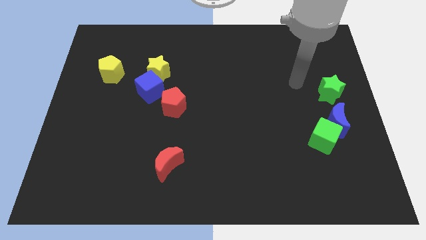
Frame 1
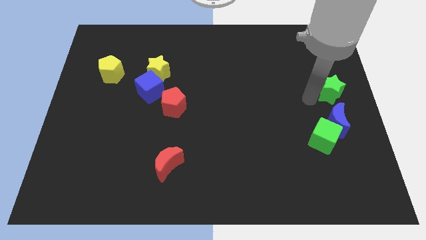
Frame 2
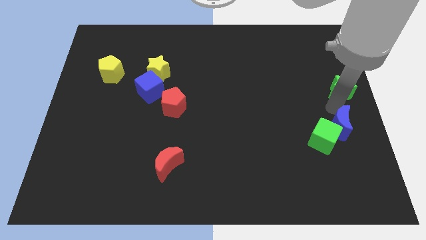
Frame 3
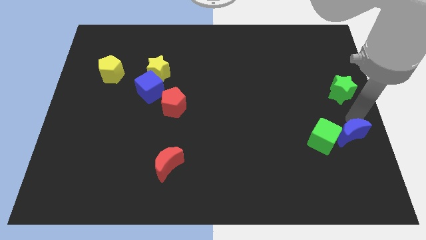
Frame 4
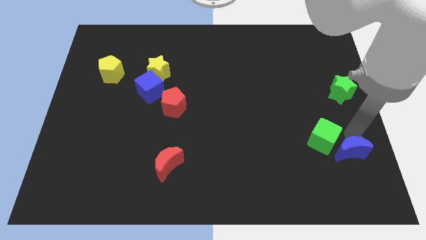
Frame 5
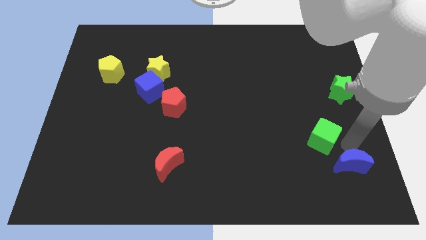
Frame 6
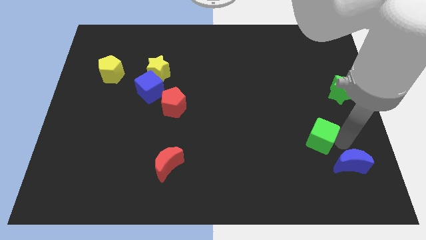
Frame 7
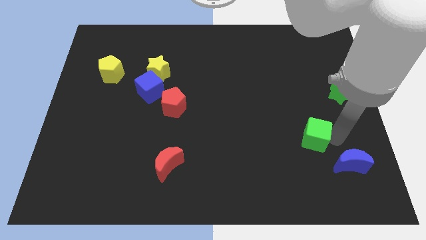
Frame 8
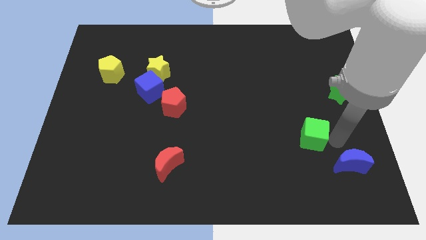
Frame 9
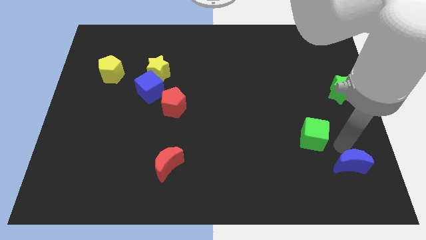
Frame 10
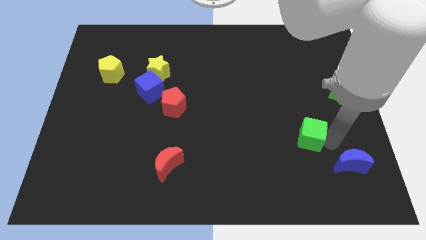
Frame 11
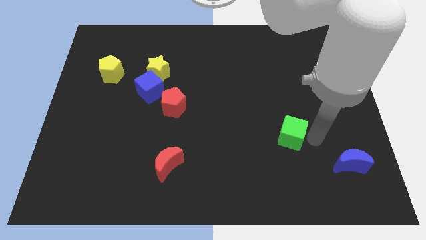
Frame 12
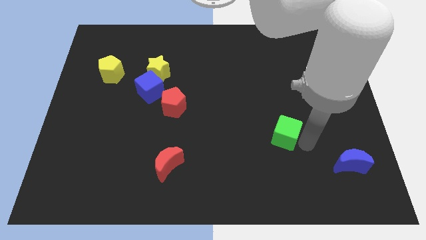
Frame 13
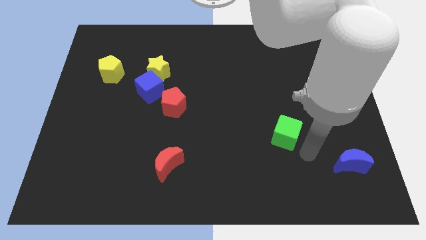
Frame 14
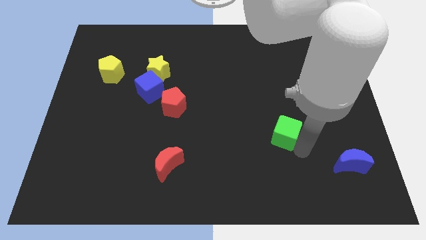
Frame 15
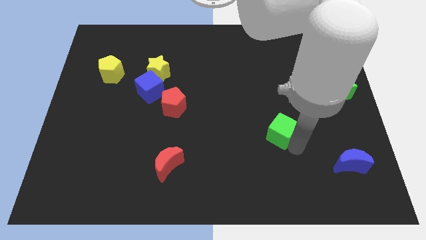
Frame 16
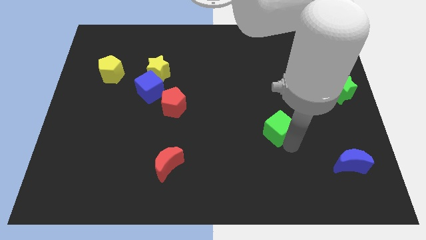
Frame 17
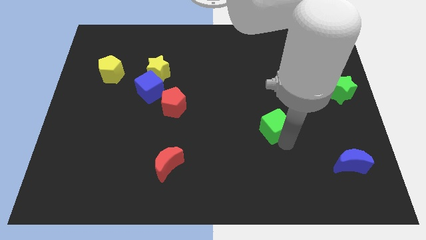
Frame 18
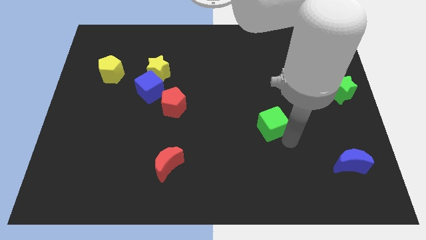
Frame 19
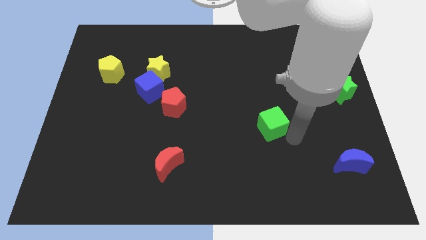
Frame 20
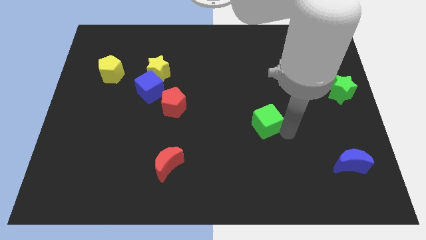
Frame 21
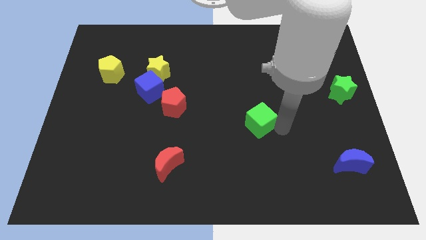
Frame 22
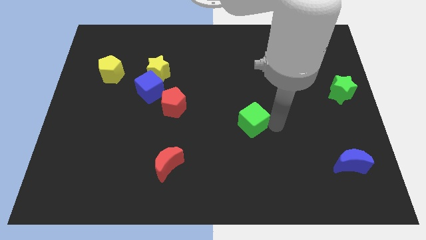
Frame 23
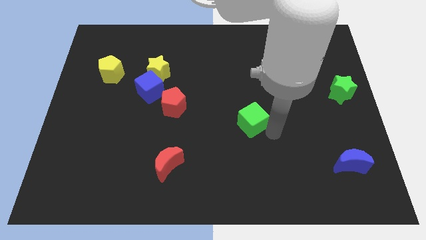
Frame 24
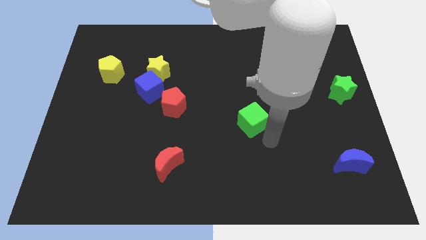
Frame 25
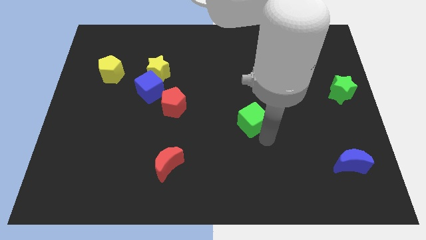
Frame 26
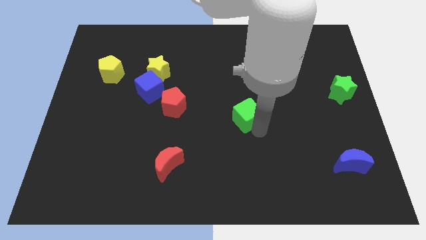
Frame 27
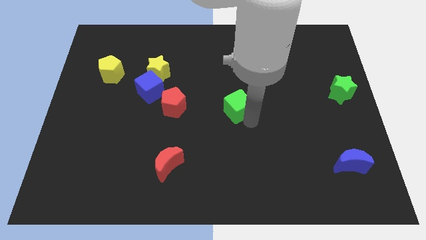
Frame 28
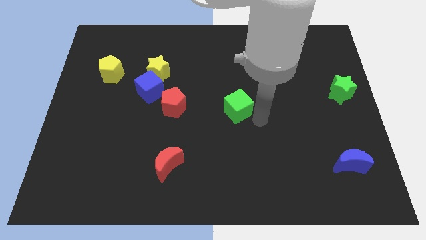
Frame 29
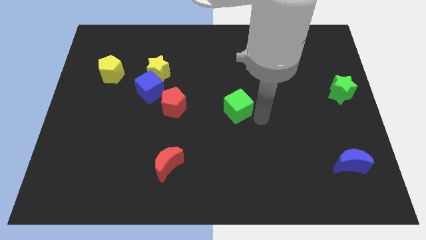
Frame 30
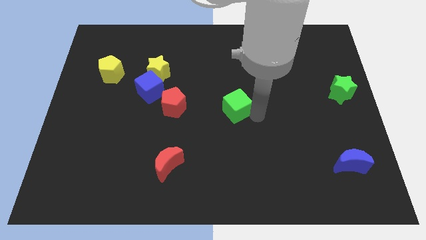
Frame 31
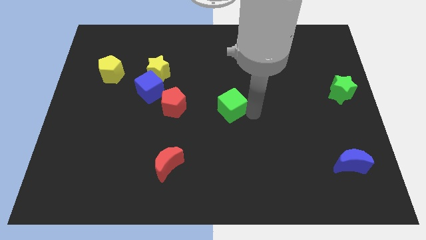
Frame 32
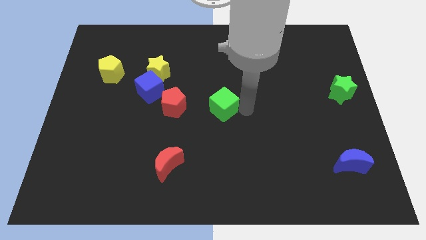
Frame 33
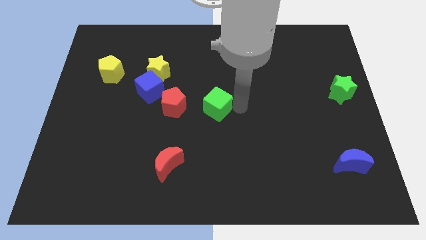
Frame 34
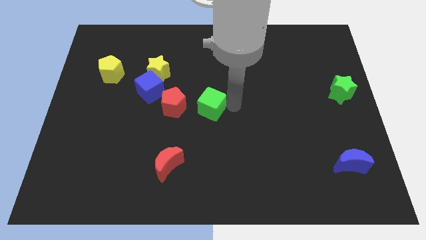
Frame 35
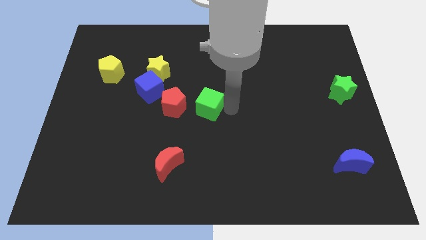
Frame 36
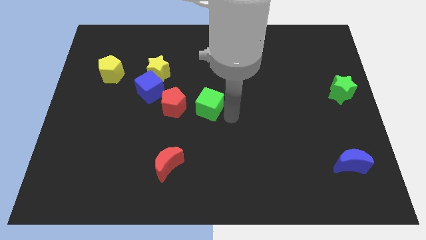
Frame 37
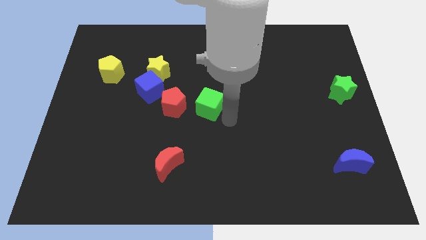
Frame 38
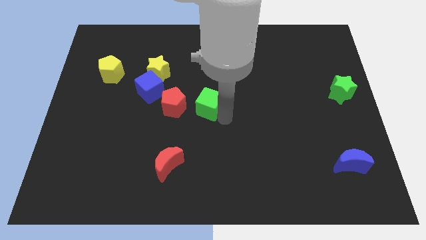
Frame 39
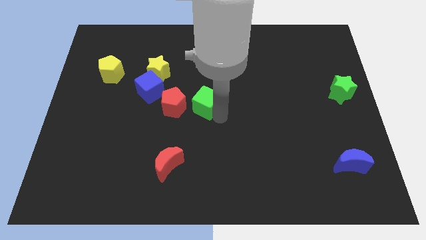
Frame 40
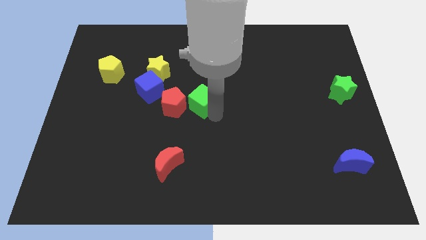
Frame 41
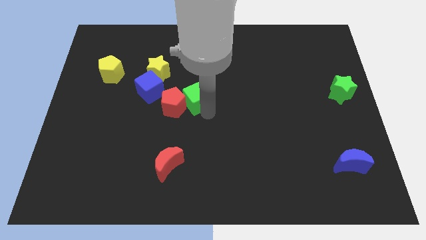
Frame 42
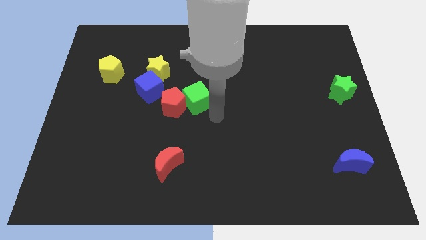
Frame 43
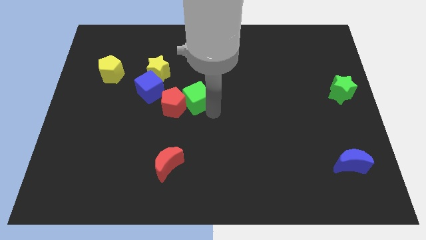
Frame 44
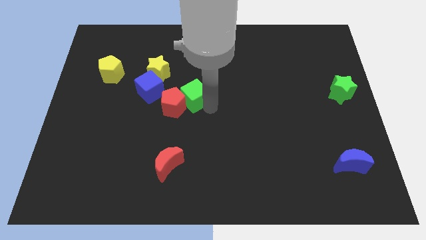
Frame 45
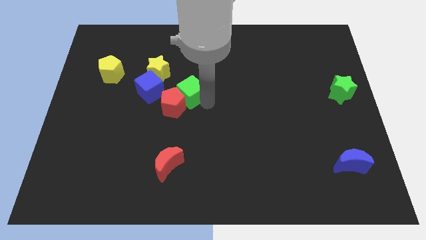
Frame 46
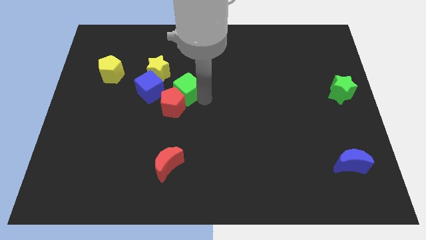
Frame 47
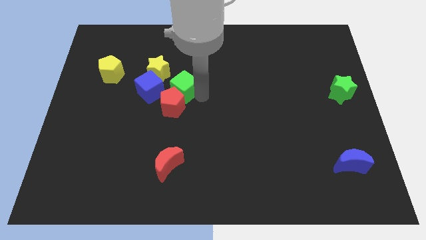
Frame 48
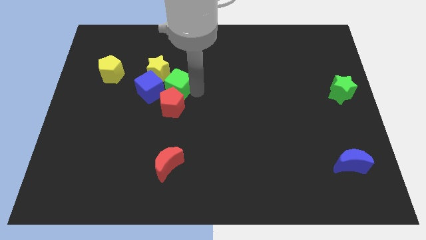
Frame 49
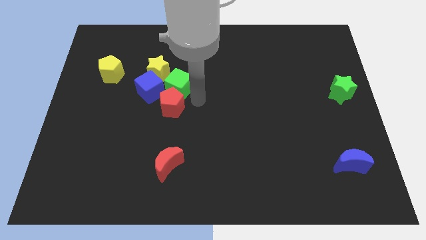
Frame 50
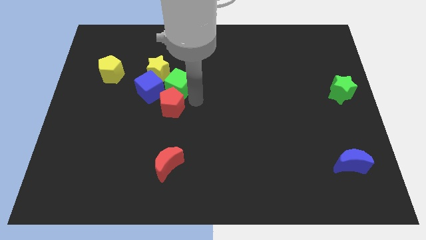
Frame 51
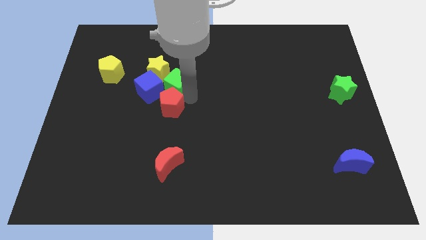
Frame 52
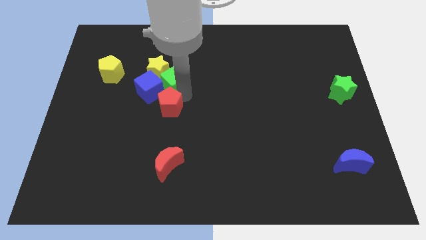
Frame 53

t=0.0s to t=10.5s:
put the green cube next to the yellow star

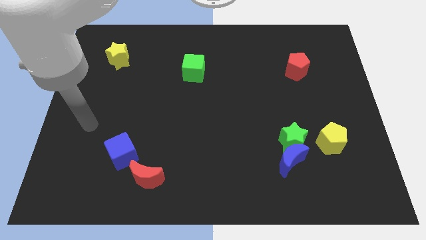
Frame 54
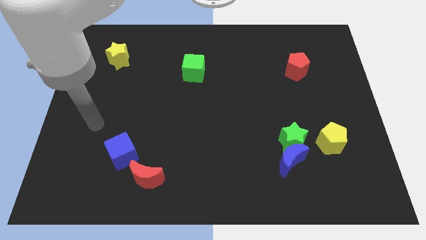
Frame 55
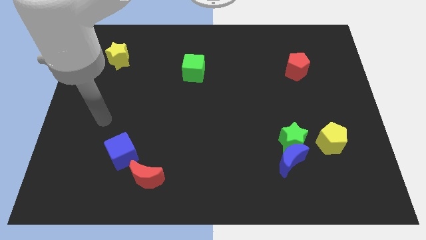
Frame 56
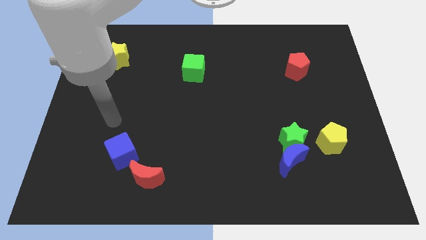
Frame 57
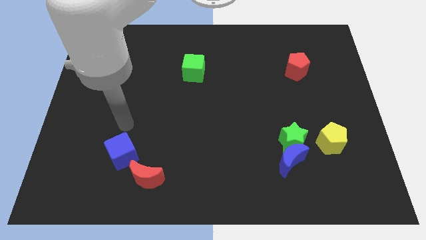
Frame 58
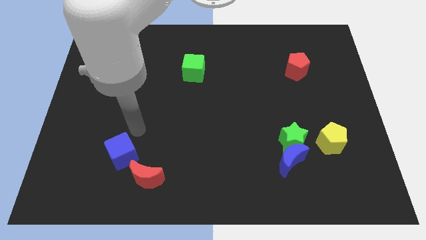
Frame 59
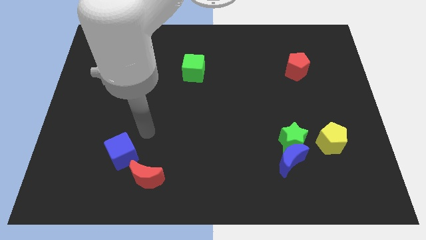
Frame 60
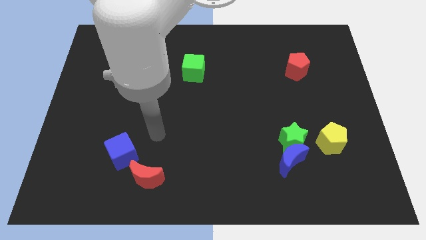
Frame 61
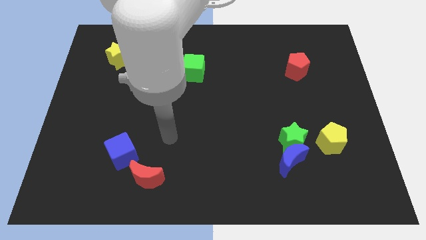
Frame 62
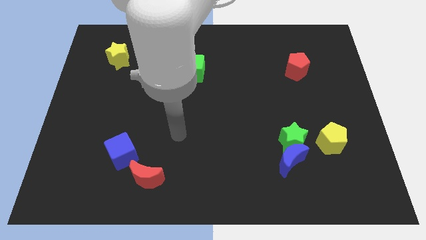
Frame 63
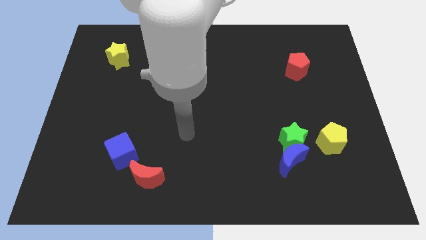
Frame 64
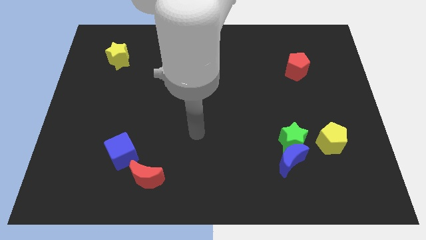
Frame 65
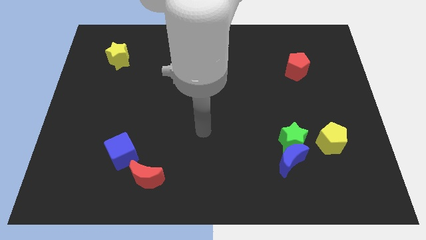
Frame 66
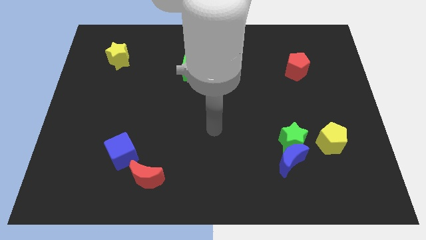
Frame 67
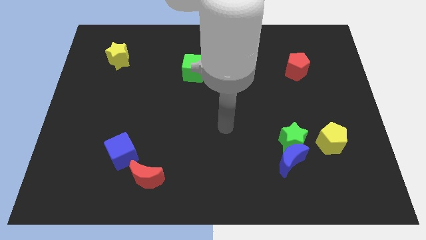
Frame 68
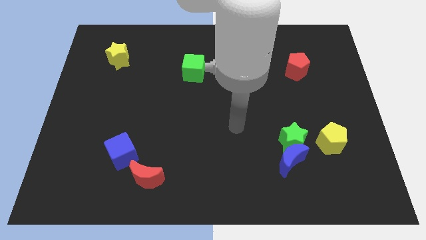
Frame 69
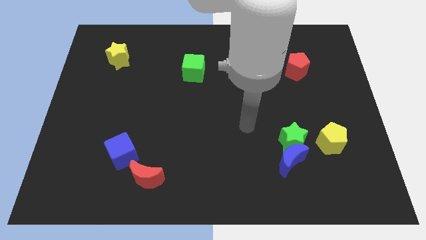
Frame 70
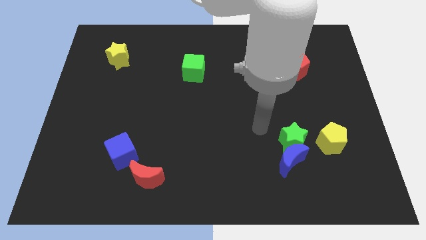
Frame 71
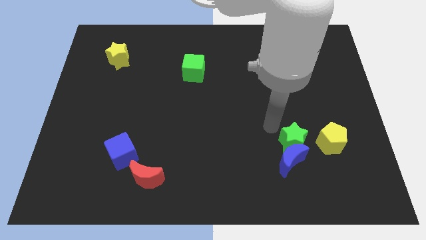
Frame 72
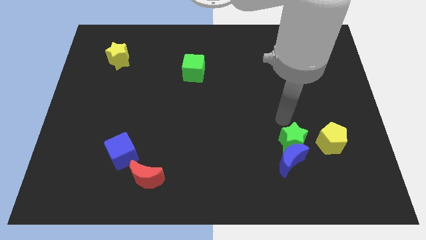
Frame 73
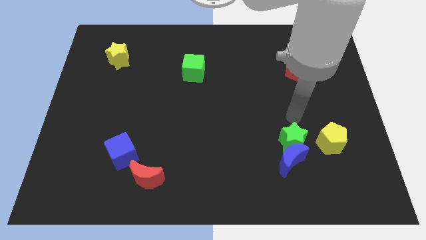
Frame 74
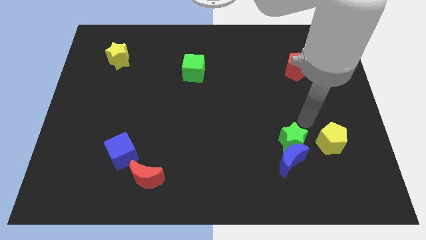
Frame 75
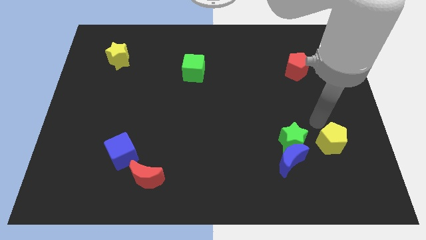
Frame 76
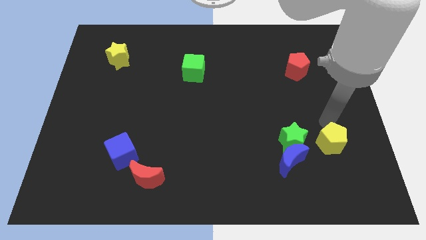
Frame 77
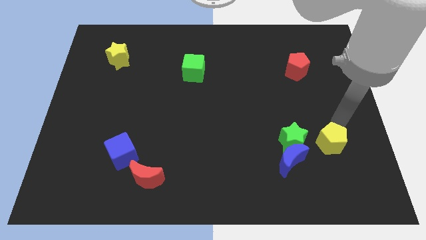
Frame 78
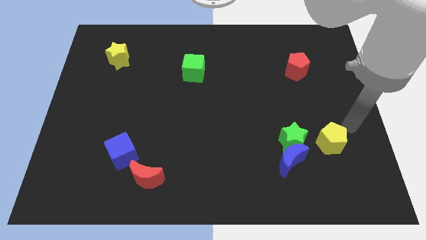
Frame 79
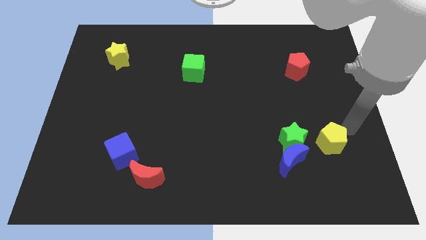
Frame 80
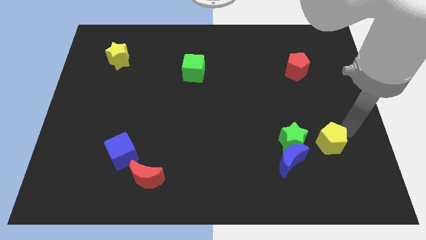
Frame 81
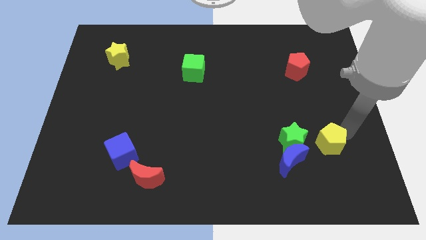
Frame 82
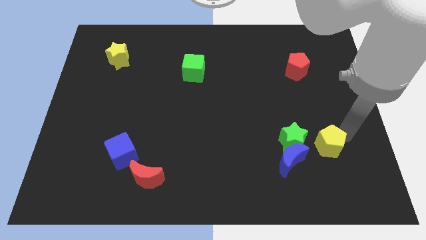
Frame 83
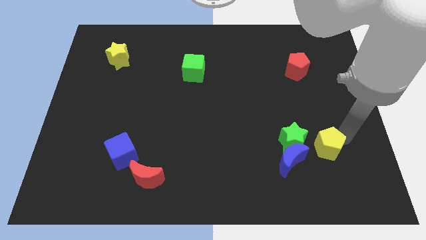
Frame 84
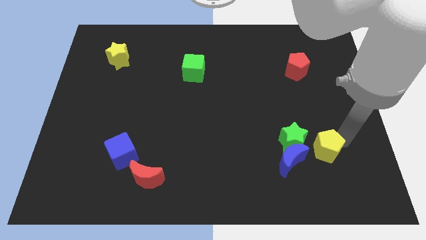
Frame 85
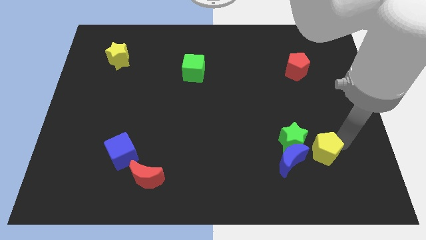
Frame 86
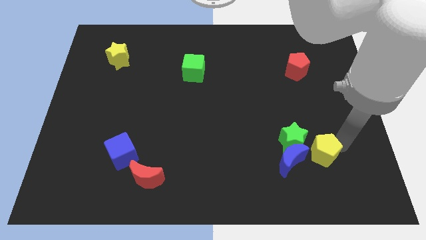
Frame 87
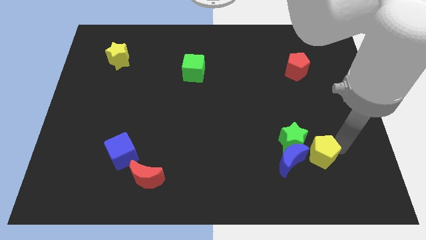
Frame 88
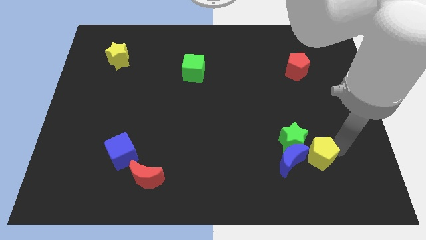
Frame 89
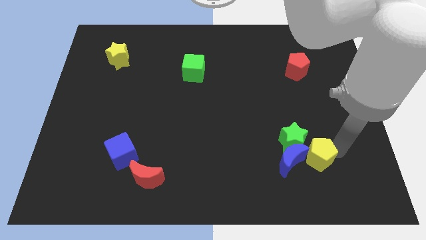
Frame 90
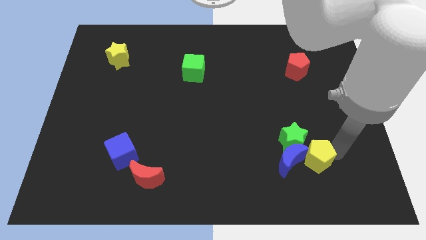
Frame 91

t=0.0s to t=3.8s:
slide the yellow pentagon to the blue moon
